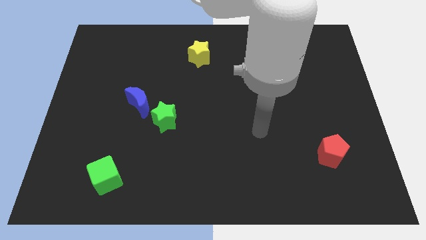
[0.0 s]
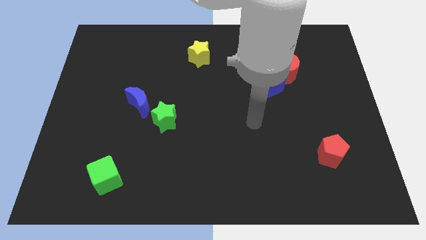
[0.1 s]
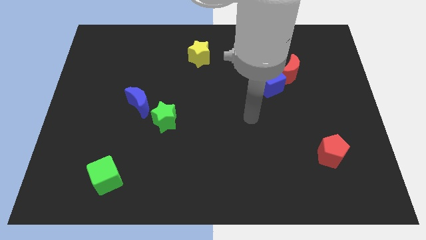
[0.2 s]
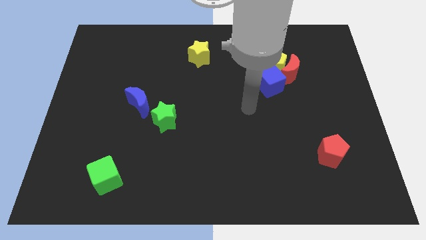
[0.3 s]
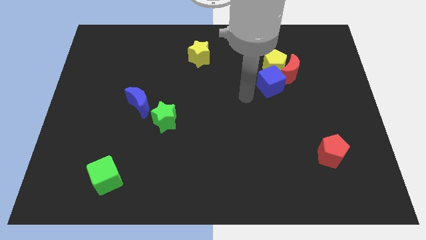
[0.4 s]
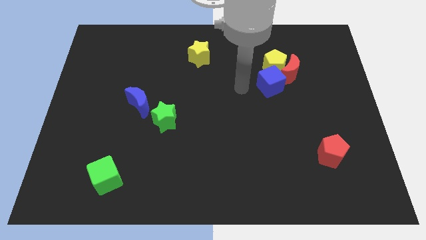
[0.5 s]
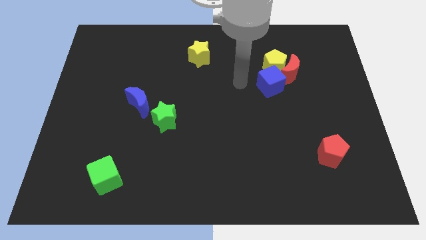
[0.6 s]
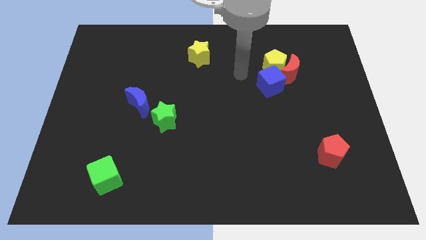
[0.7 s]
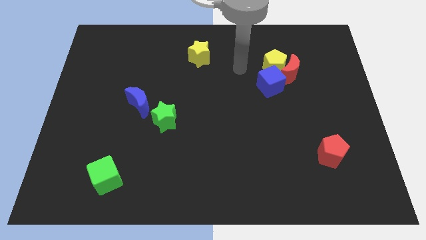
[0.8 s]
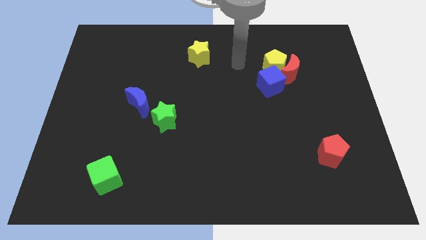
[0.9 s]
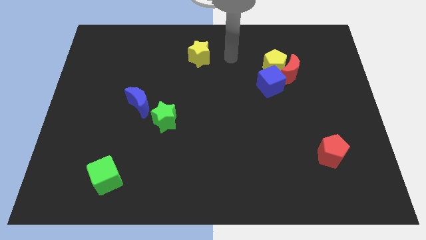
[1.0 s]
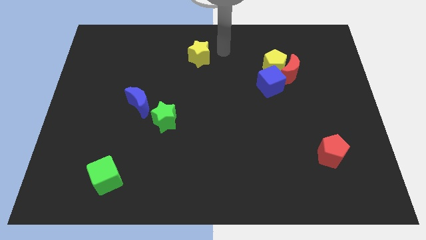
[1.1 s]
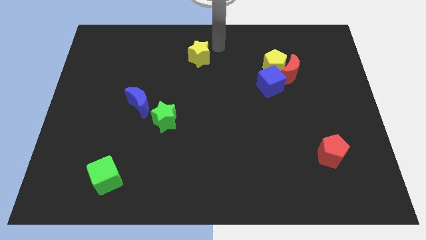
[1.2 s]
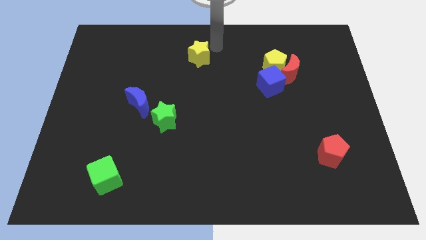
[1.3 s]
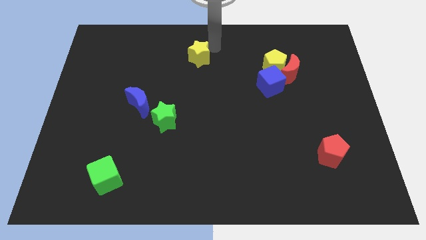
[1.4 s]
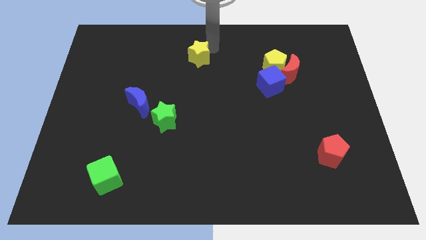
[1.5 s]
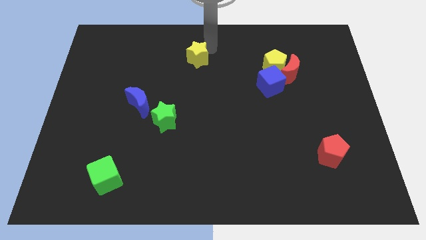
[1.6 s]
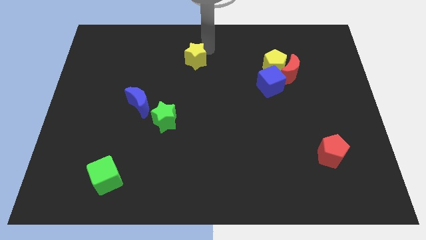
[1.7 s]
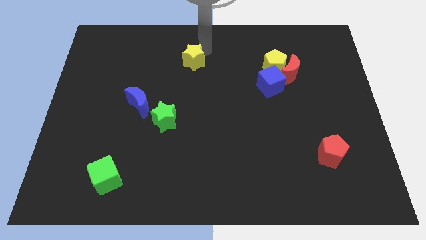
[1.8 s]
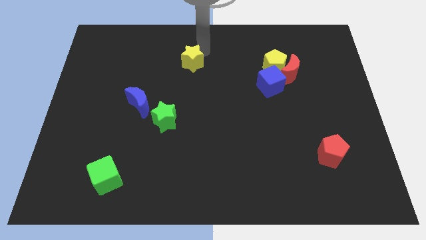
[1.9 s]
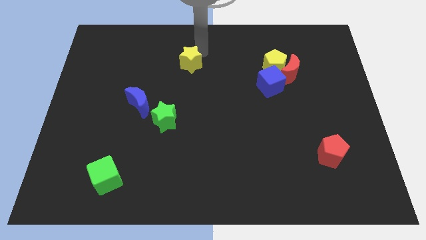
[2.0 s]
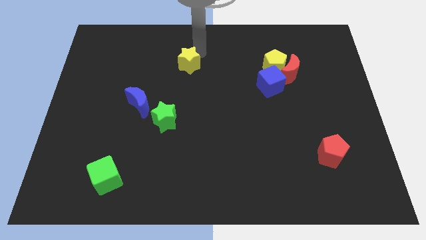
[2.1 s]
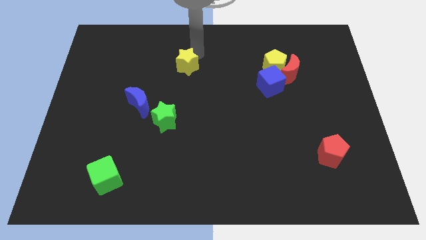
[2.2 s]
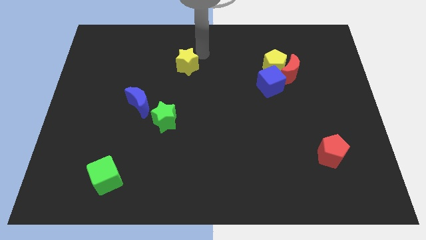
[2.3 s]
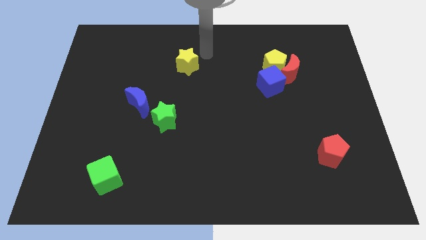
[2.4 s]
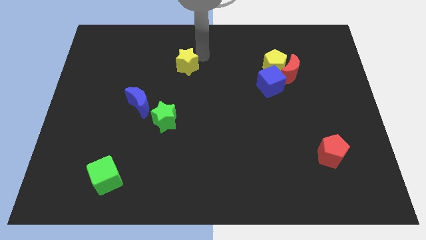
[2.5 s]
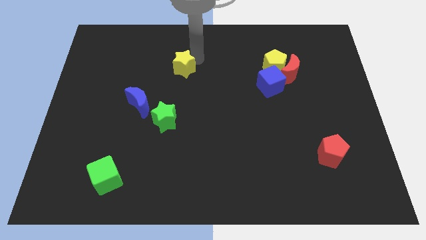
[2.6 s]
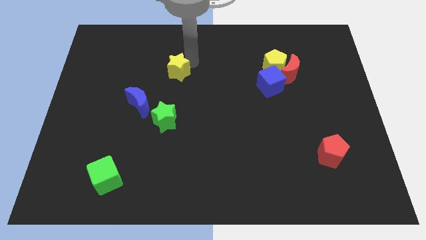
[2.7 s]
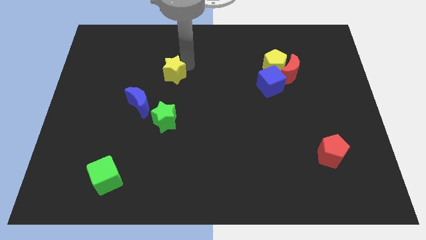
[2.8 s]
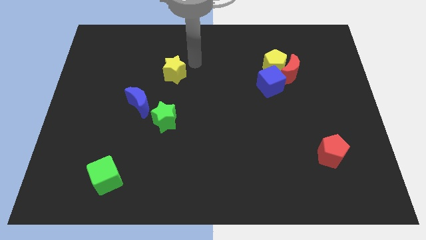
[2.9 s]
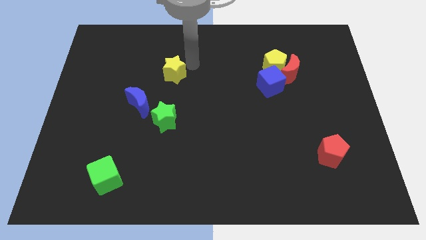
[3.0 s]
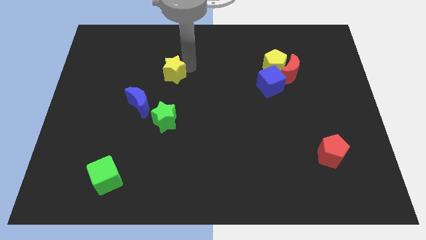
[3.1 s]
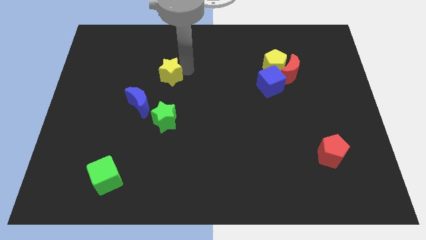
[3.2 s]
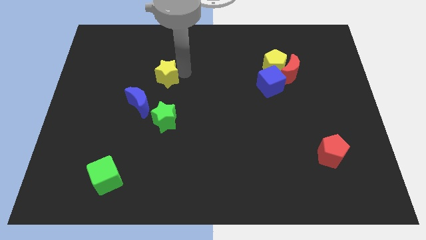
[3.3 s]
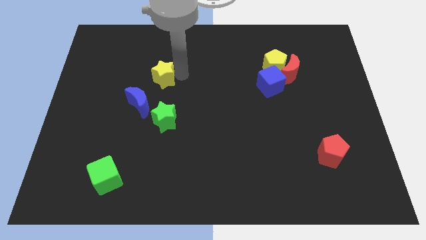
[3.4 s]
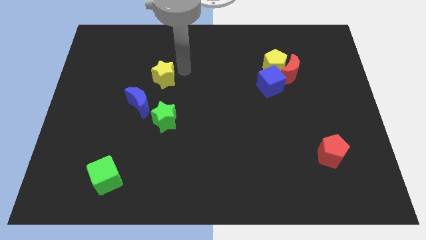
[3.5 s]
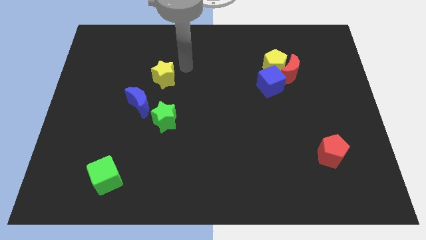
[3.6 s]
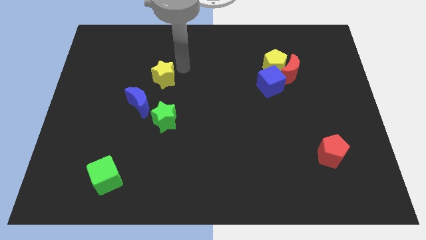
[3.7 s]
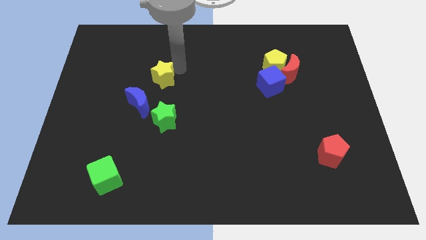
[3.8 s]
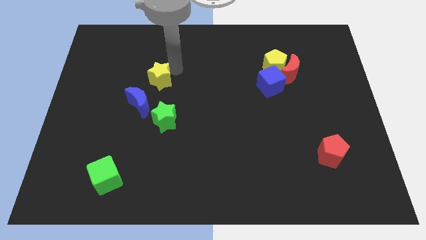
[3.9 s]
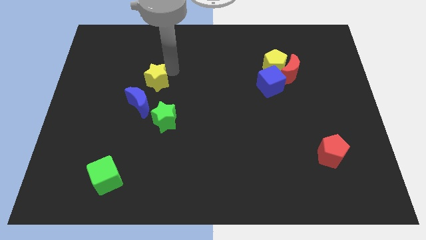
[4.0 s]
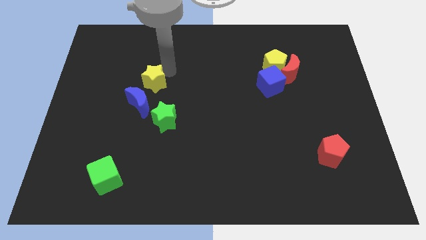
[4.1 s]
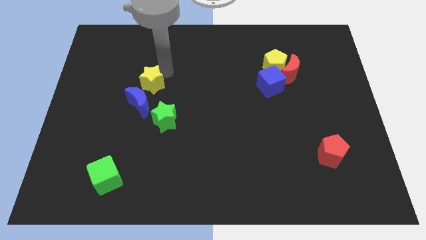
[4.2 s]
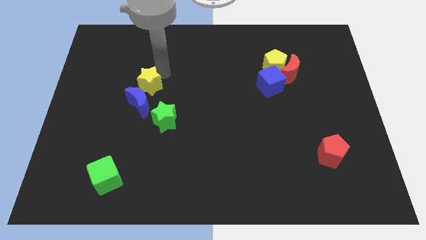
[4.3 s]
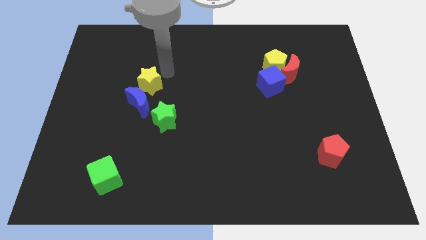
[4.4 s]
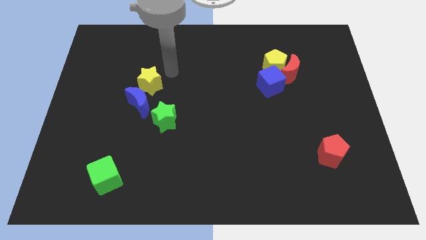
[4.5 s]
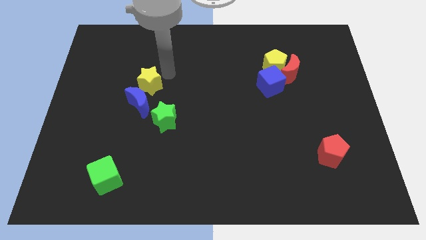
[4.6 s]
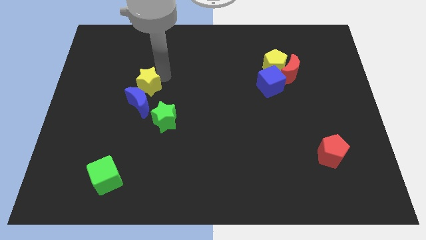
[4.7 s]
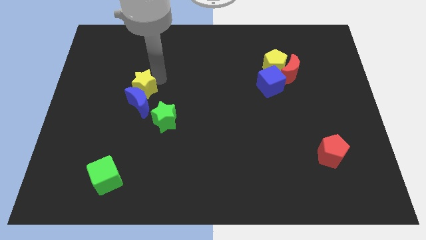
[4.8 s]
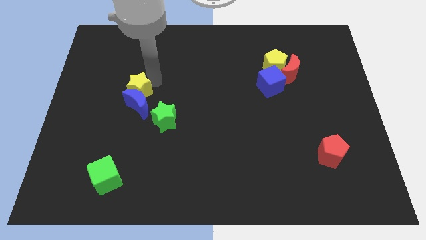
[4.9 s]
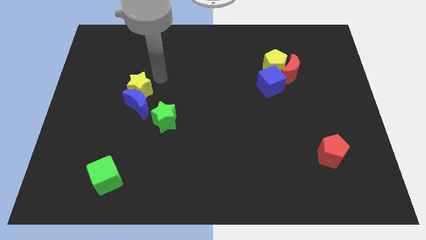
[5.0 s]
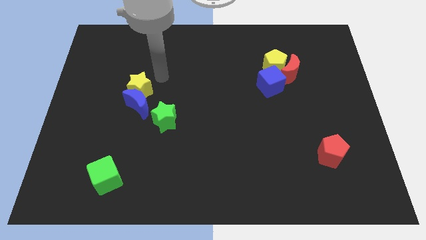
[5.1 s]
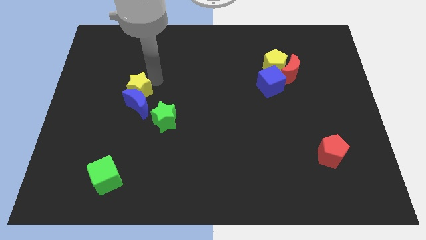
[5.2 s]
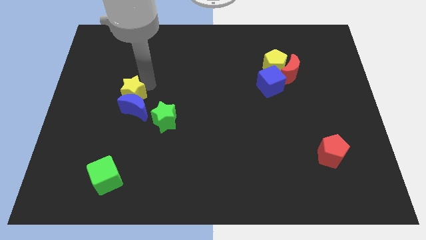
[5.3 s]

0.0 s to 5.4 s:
push the yellow star down and then to the left

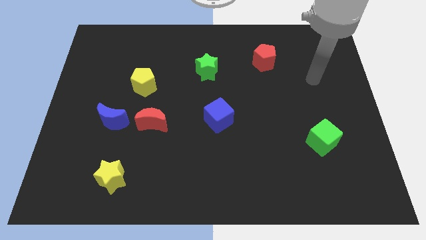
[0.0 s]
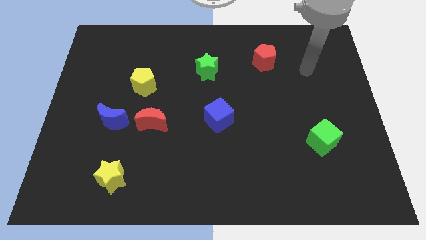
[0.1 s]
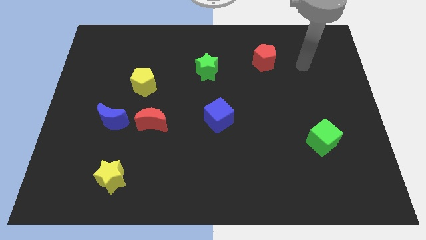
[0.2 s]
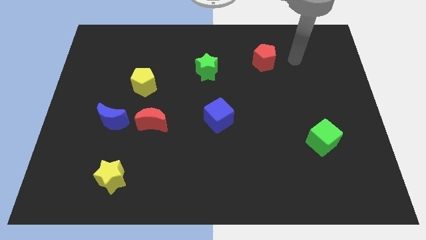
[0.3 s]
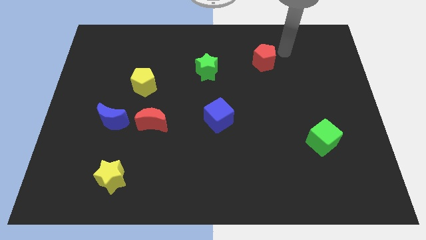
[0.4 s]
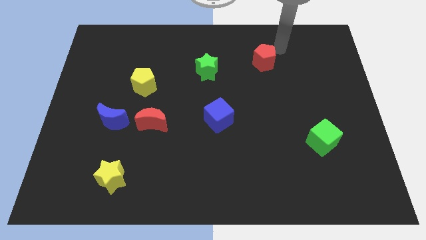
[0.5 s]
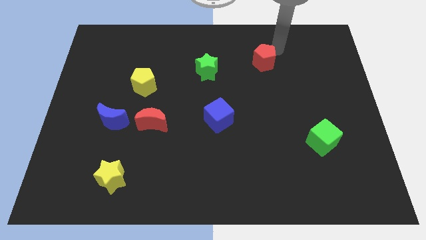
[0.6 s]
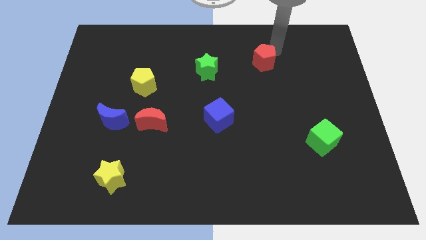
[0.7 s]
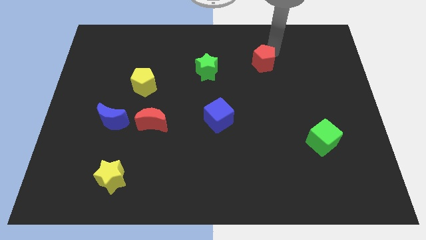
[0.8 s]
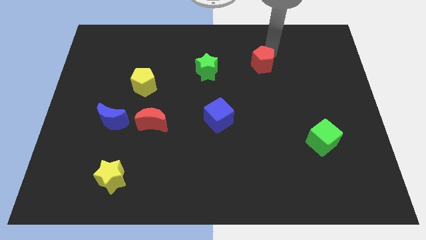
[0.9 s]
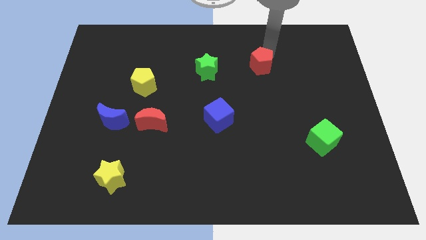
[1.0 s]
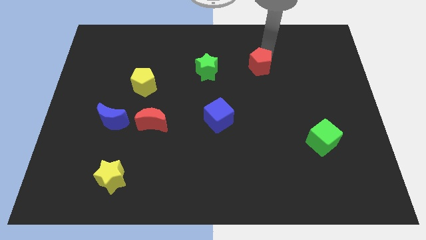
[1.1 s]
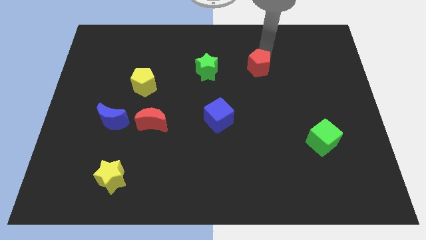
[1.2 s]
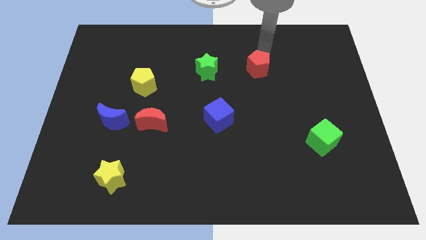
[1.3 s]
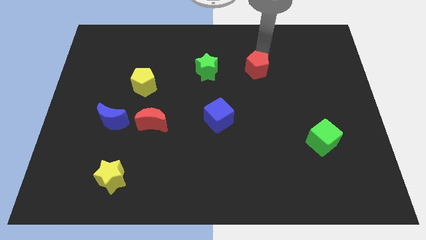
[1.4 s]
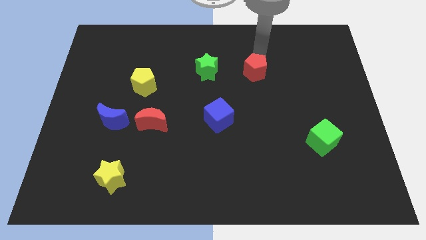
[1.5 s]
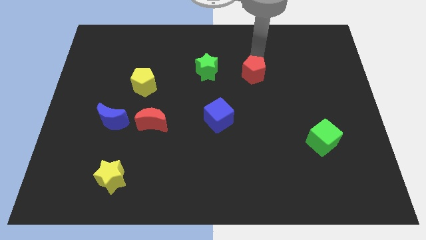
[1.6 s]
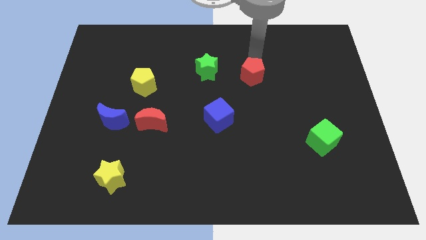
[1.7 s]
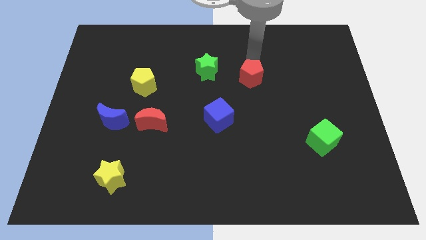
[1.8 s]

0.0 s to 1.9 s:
slide the red pentagon somewhat downwards and left

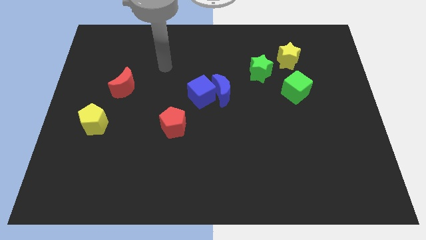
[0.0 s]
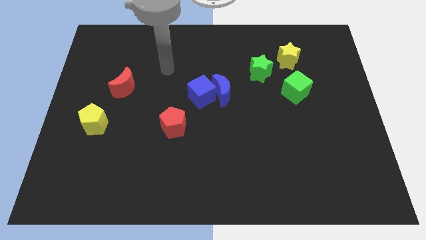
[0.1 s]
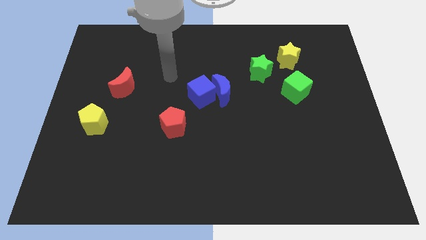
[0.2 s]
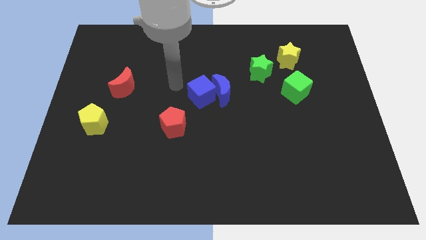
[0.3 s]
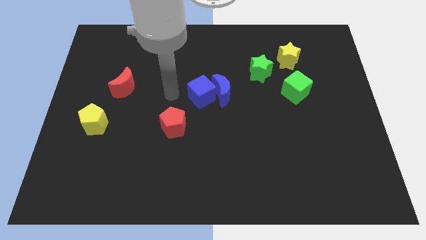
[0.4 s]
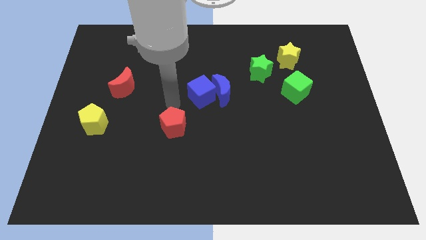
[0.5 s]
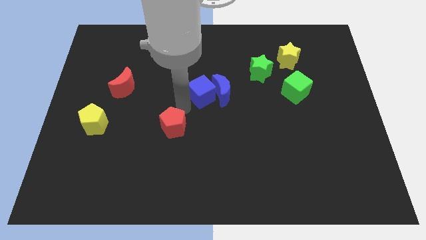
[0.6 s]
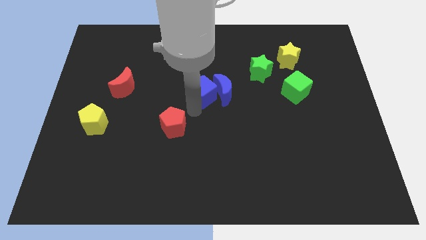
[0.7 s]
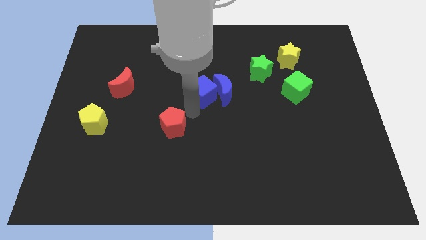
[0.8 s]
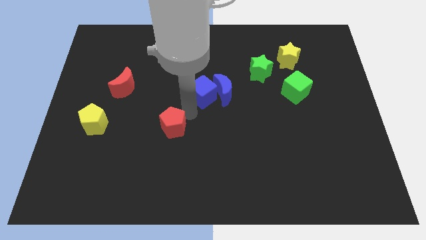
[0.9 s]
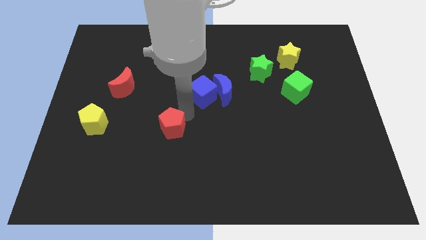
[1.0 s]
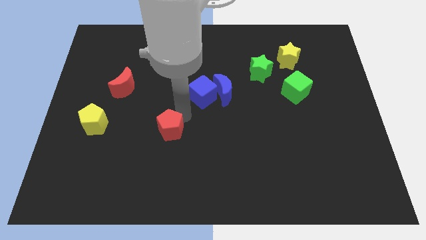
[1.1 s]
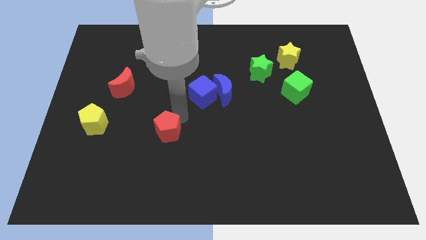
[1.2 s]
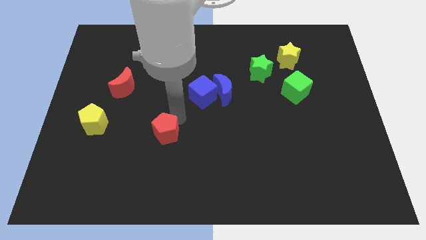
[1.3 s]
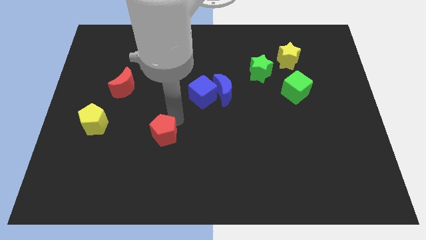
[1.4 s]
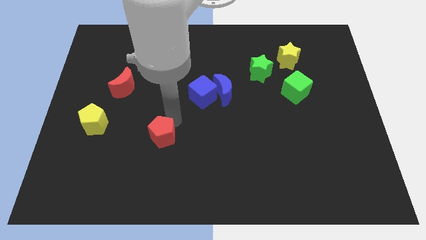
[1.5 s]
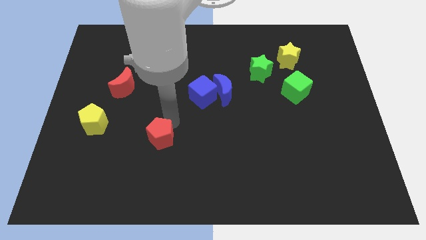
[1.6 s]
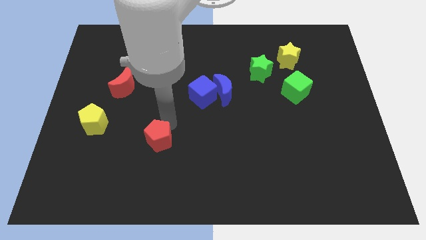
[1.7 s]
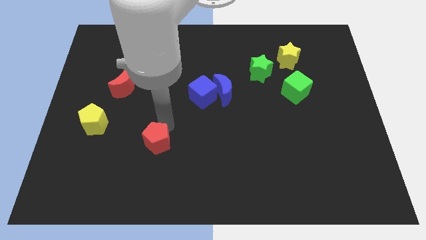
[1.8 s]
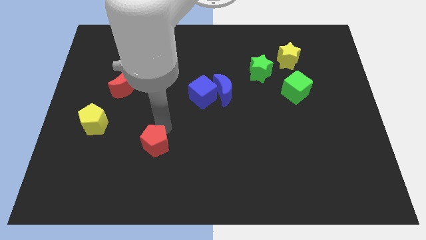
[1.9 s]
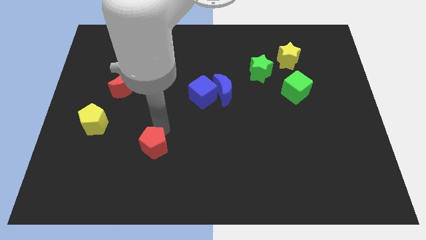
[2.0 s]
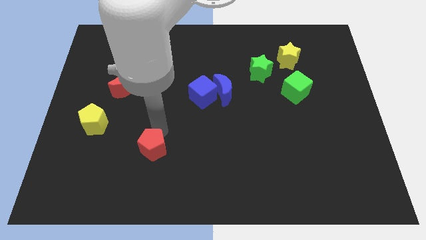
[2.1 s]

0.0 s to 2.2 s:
move the red pentagon downwards and to the left diagonally a bit
